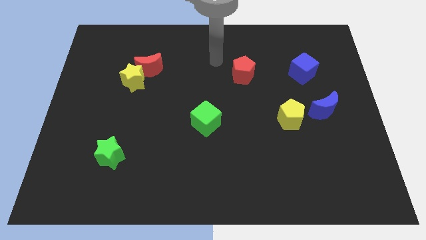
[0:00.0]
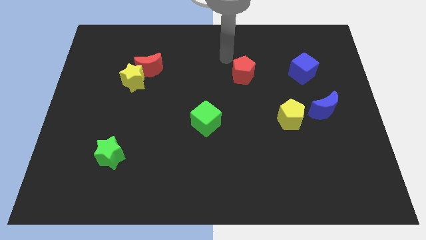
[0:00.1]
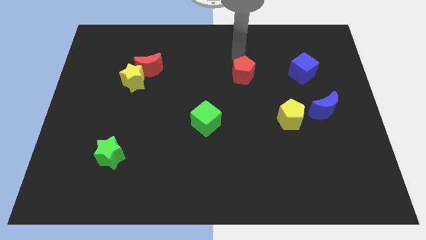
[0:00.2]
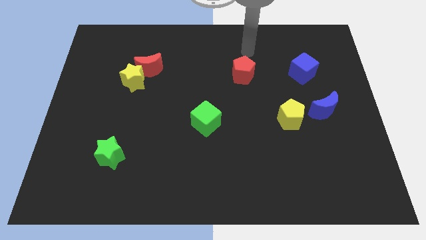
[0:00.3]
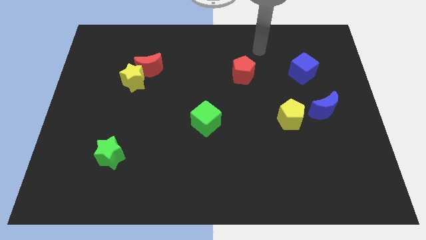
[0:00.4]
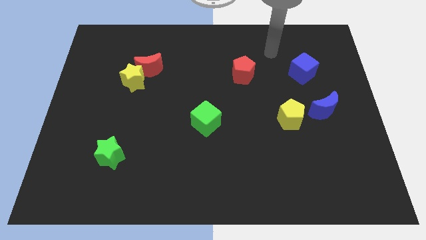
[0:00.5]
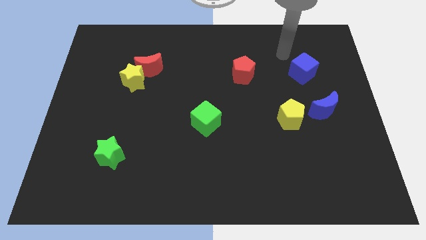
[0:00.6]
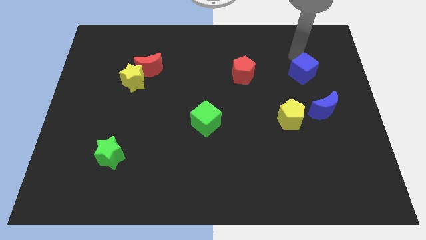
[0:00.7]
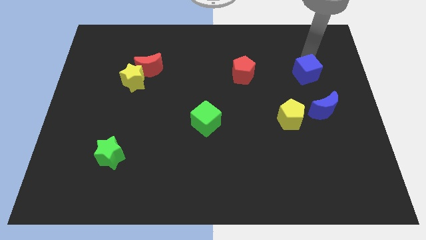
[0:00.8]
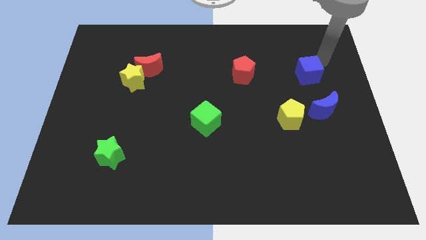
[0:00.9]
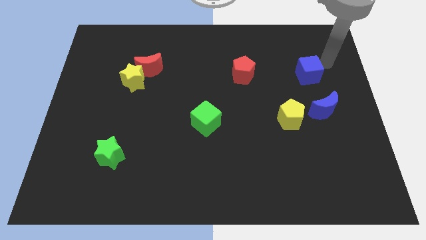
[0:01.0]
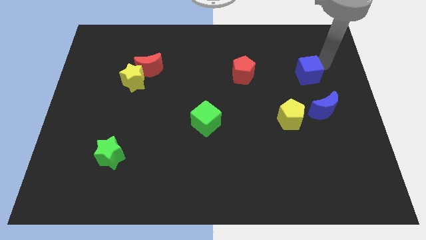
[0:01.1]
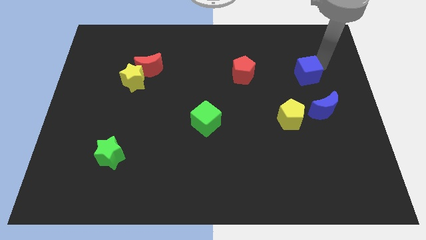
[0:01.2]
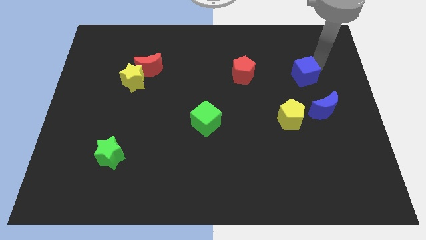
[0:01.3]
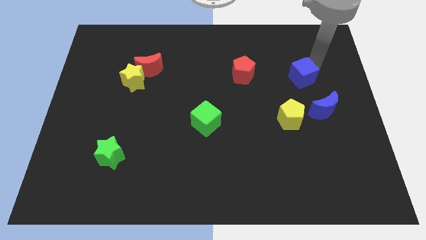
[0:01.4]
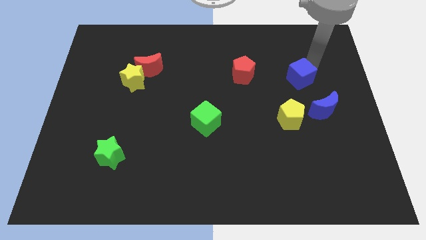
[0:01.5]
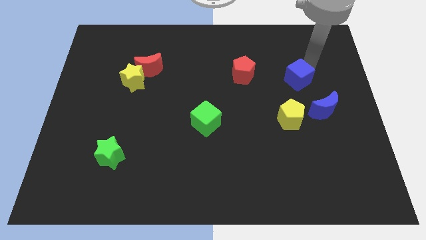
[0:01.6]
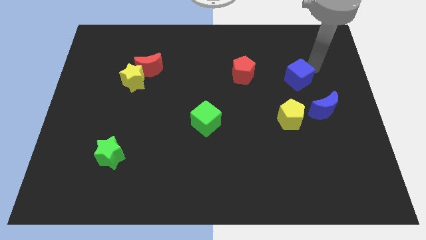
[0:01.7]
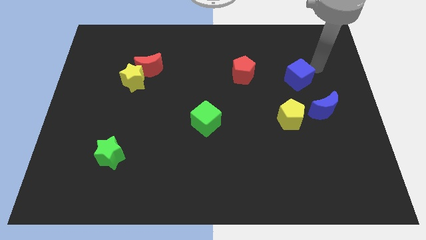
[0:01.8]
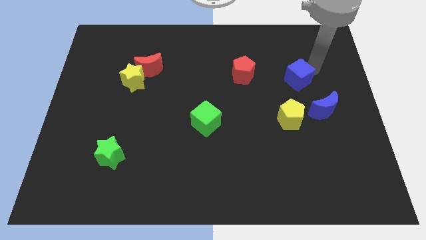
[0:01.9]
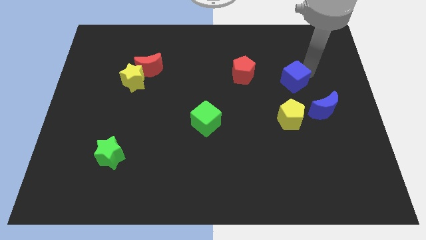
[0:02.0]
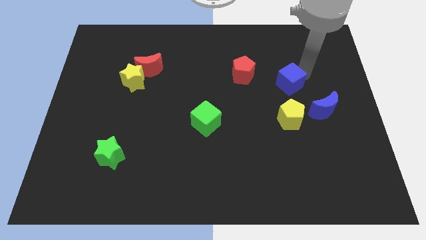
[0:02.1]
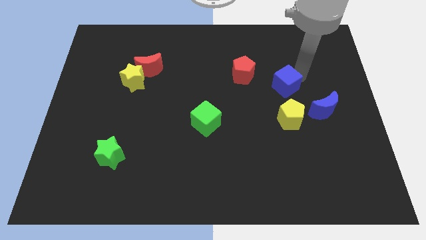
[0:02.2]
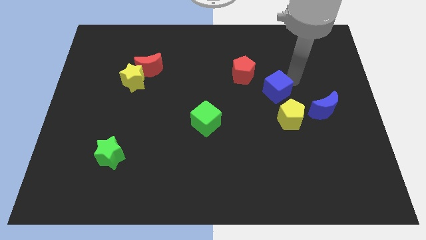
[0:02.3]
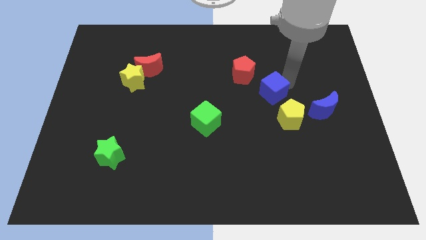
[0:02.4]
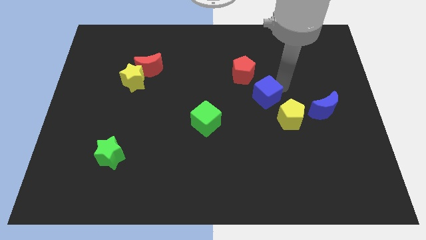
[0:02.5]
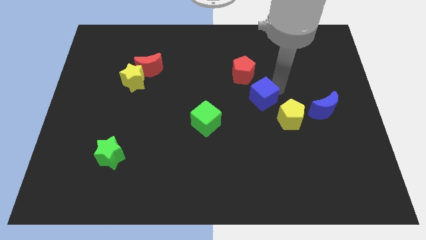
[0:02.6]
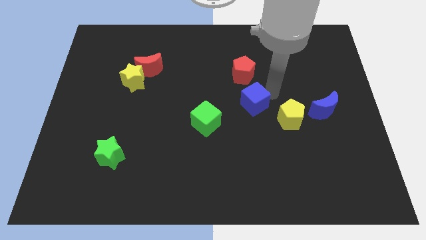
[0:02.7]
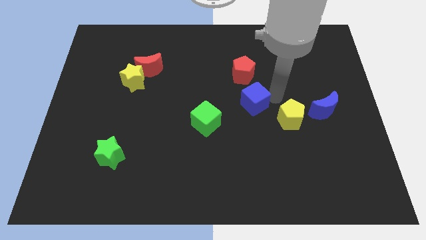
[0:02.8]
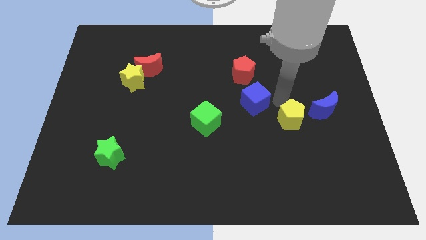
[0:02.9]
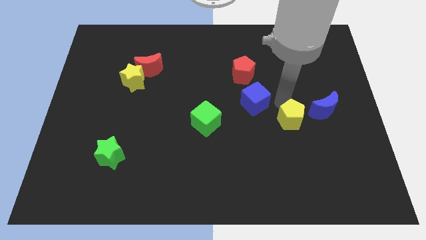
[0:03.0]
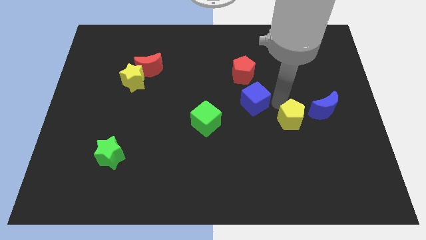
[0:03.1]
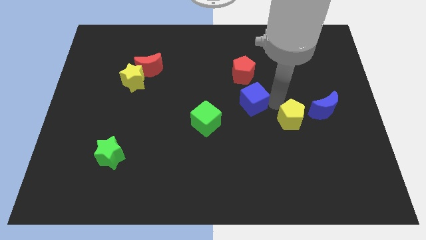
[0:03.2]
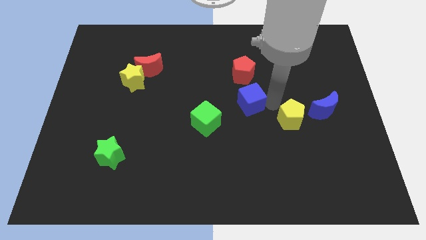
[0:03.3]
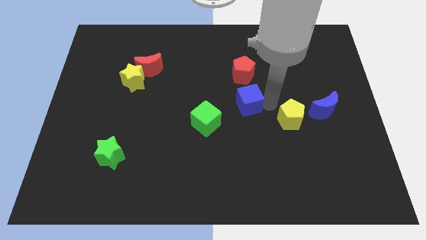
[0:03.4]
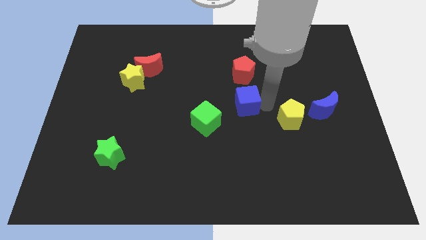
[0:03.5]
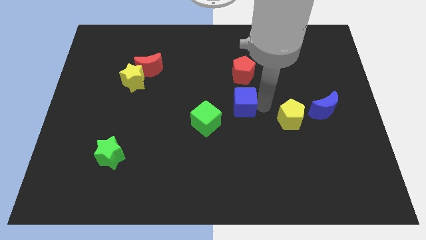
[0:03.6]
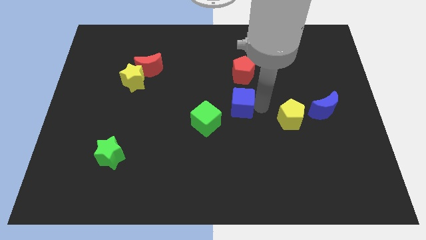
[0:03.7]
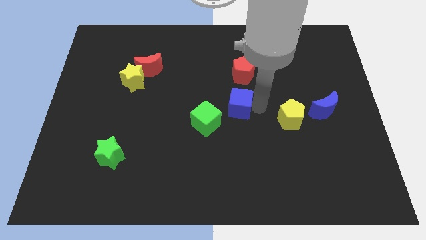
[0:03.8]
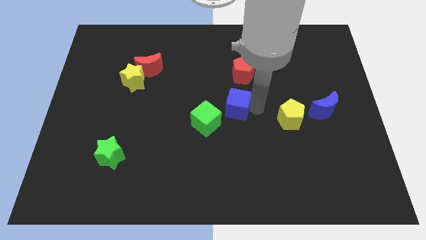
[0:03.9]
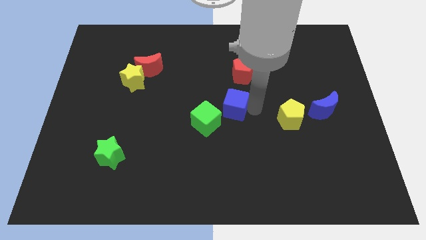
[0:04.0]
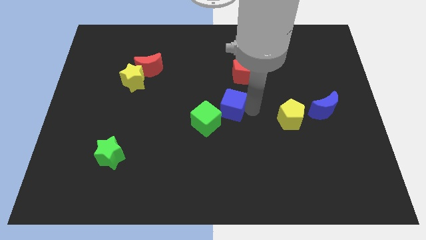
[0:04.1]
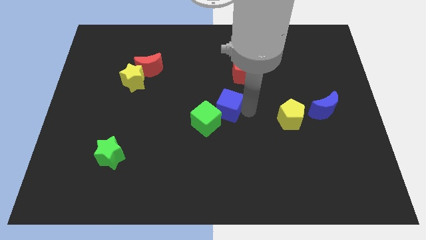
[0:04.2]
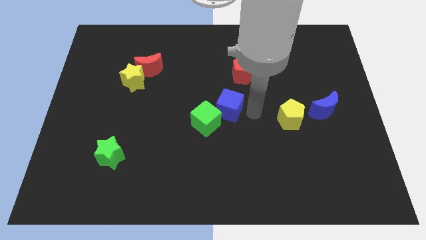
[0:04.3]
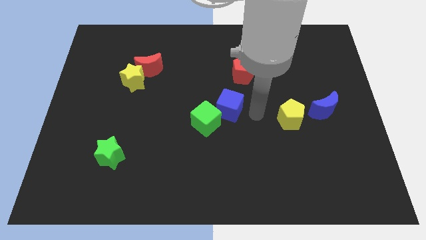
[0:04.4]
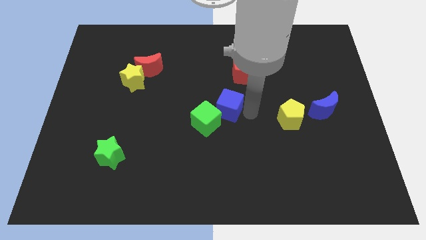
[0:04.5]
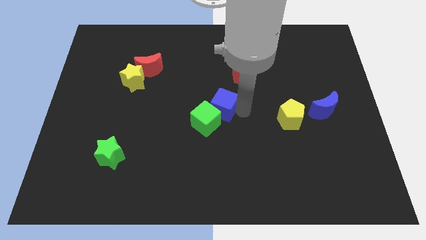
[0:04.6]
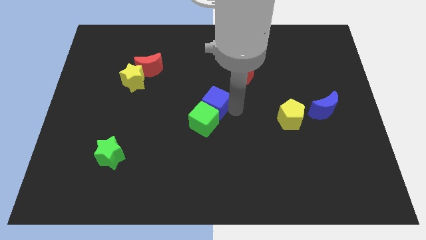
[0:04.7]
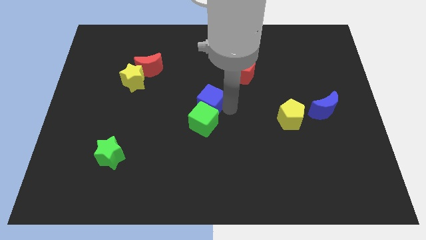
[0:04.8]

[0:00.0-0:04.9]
push the blue cube diagonally up and to the left of the green cube

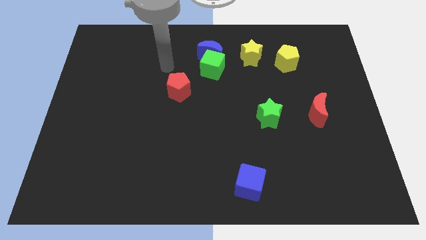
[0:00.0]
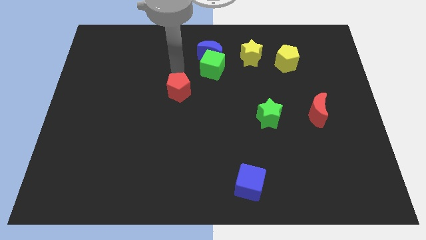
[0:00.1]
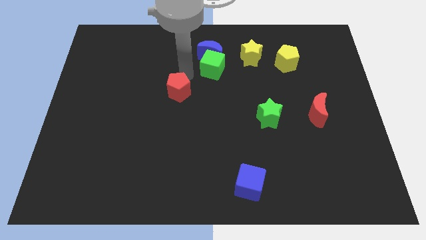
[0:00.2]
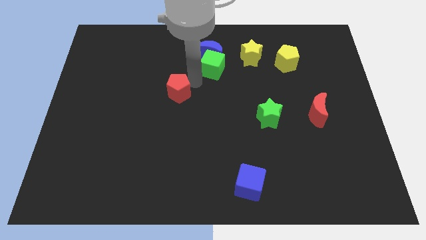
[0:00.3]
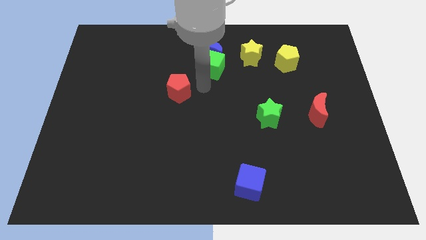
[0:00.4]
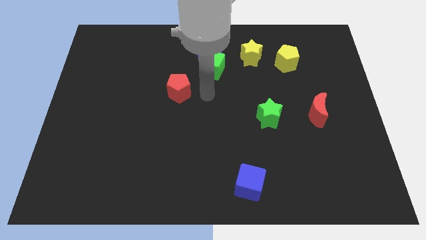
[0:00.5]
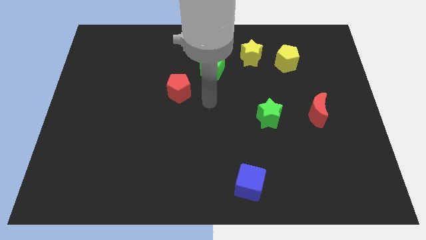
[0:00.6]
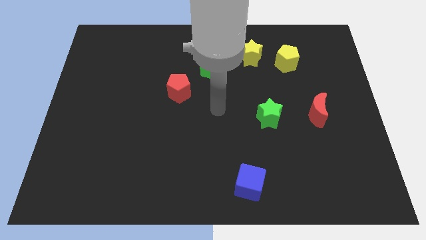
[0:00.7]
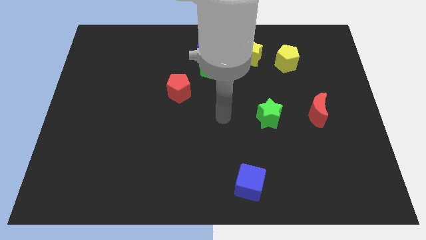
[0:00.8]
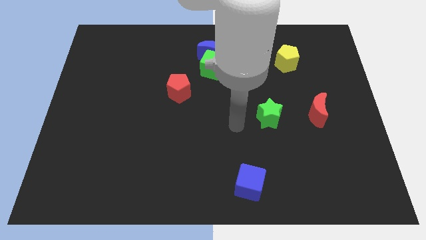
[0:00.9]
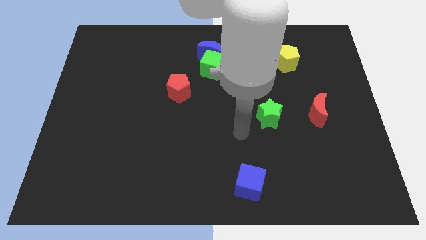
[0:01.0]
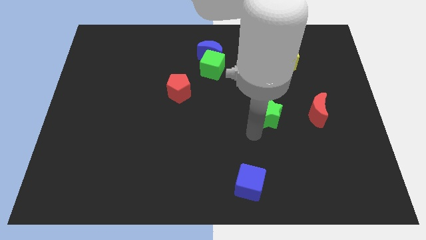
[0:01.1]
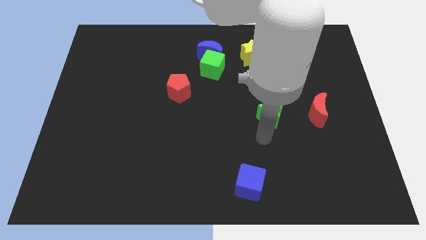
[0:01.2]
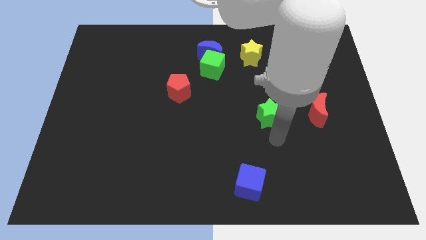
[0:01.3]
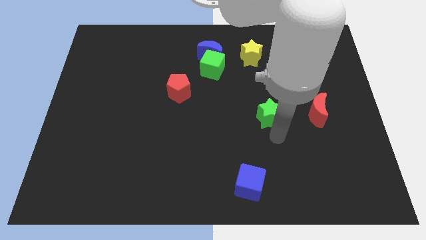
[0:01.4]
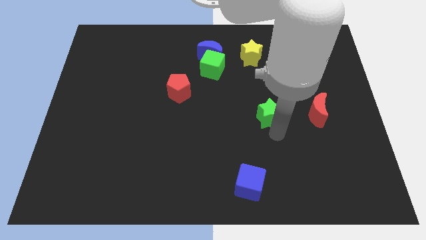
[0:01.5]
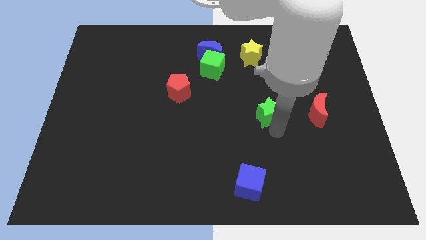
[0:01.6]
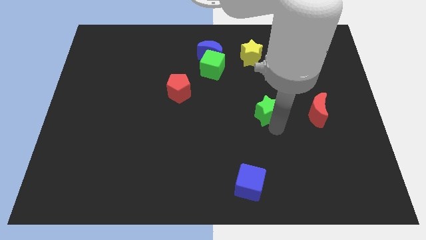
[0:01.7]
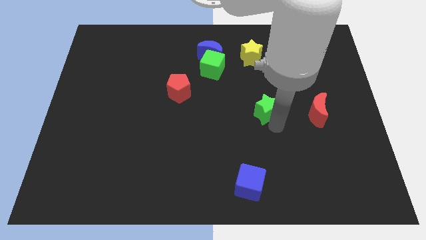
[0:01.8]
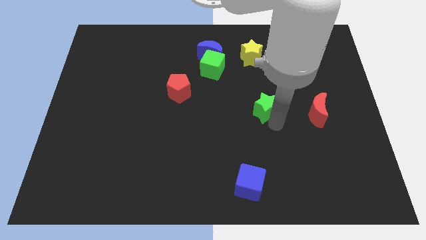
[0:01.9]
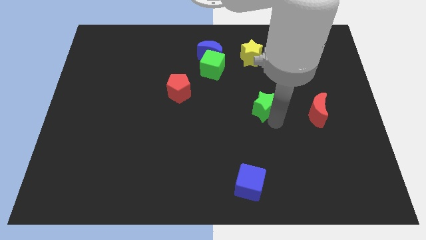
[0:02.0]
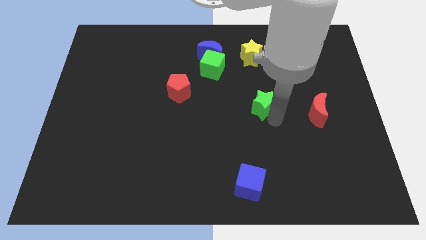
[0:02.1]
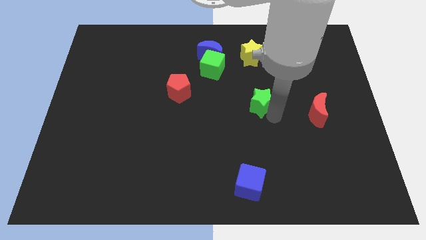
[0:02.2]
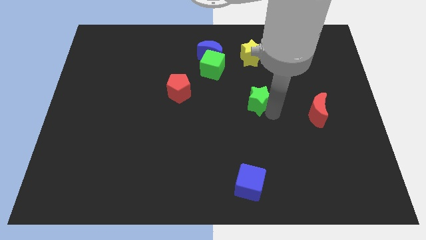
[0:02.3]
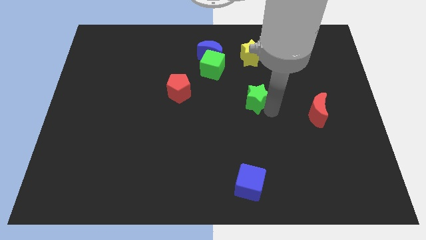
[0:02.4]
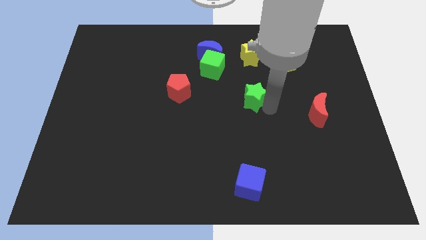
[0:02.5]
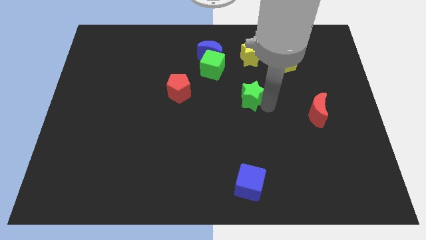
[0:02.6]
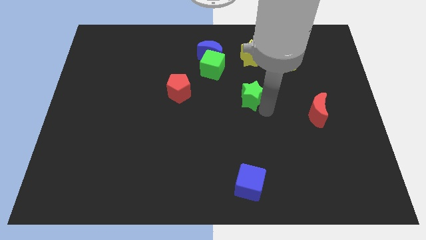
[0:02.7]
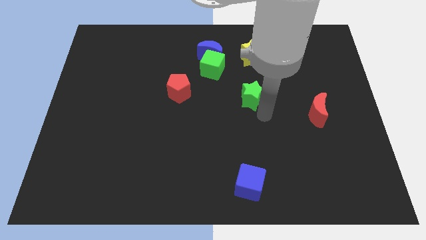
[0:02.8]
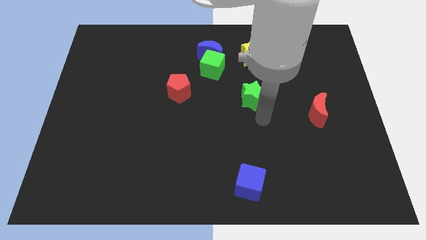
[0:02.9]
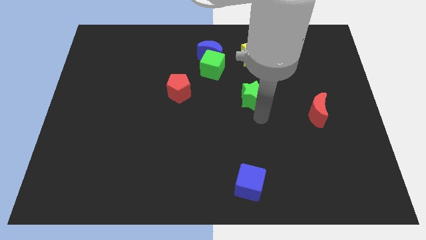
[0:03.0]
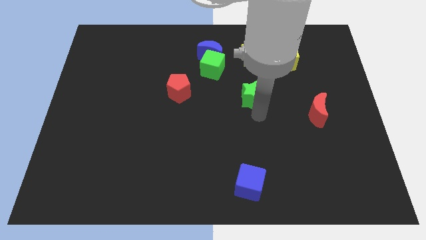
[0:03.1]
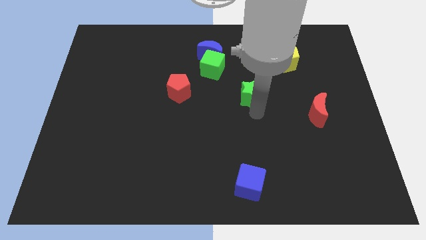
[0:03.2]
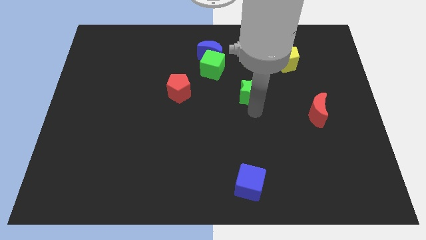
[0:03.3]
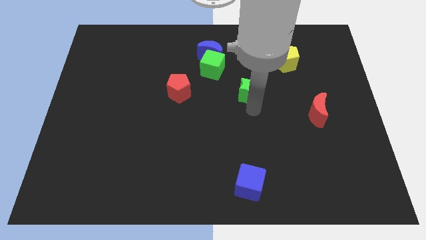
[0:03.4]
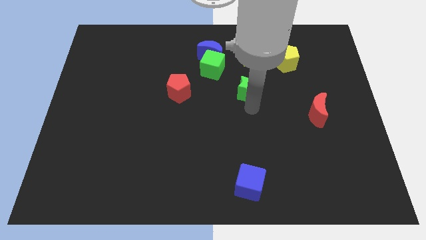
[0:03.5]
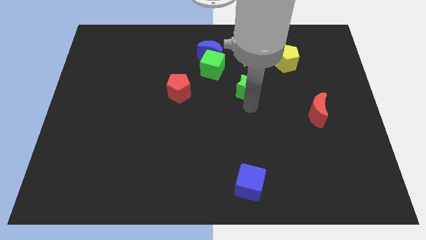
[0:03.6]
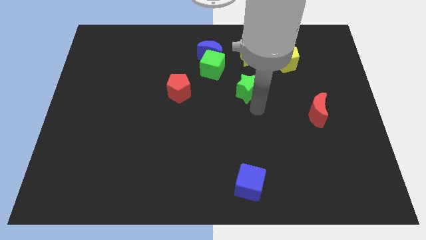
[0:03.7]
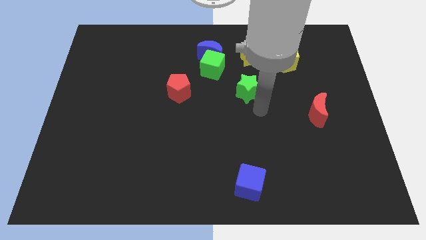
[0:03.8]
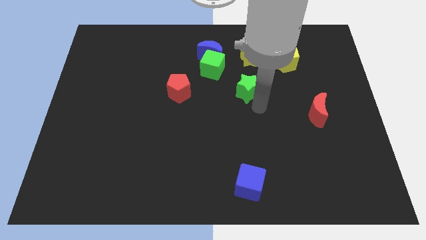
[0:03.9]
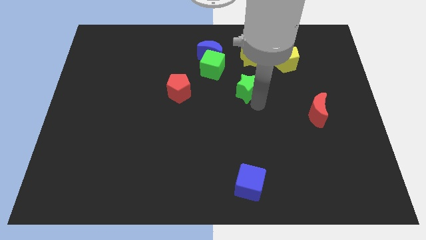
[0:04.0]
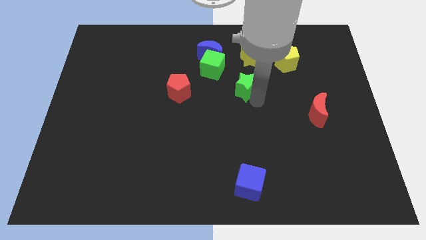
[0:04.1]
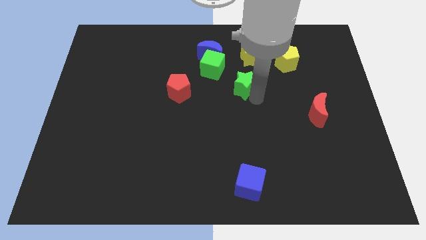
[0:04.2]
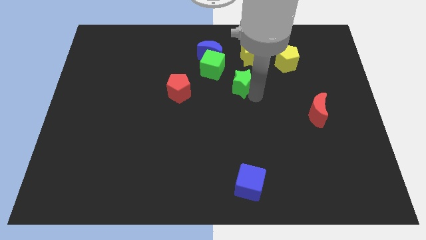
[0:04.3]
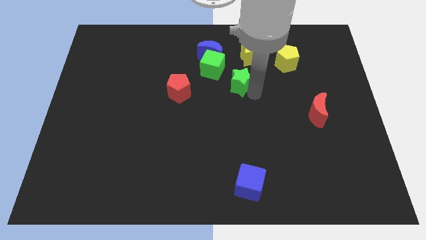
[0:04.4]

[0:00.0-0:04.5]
push the green star to the bottom left side of the yellow star
